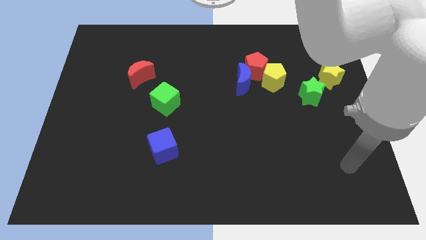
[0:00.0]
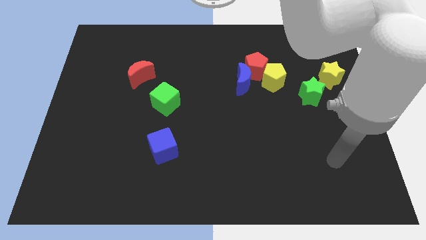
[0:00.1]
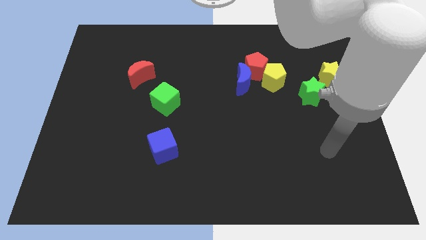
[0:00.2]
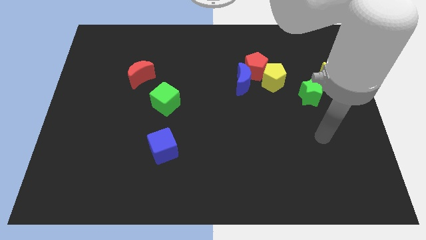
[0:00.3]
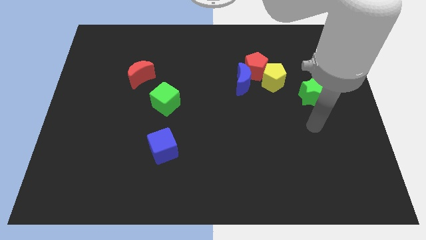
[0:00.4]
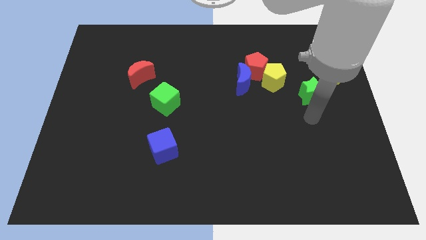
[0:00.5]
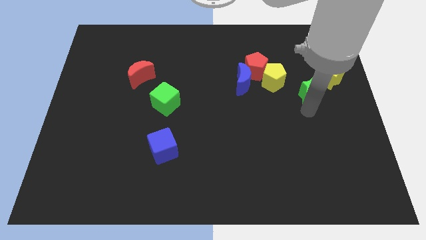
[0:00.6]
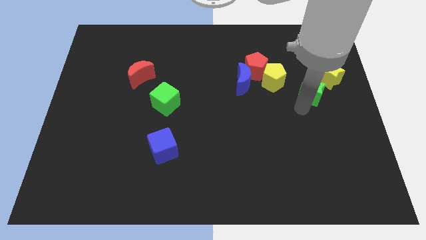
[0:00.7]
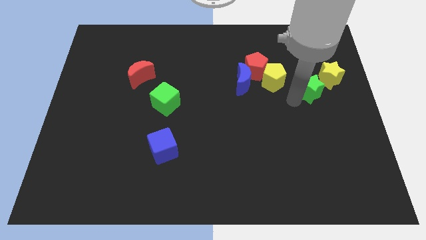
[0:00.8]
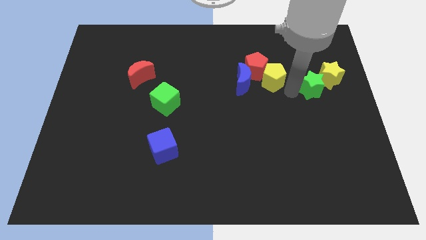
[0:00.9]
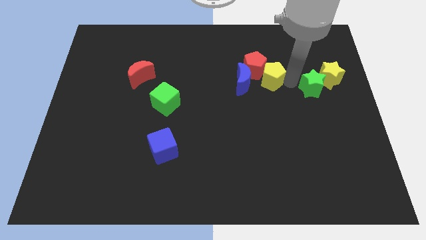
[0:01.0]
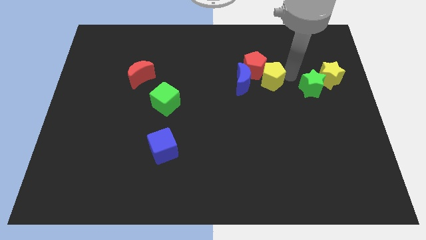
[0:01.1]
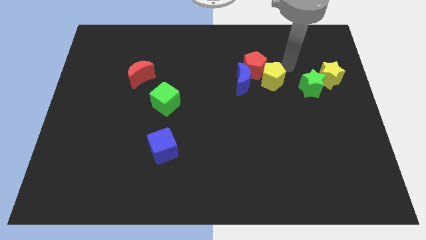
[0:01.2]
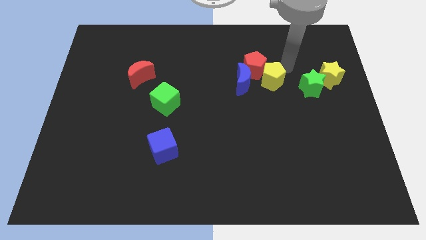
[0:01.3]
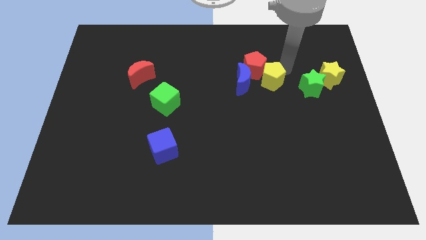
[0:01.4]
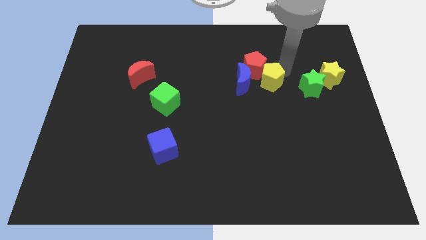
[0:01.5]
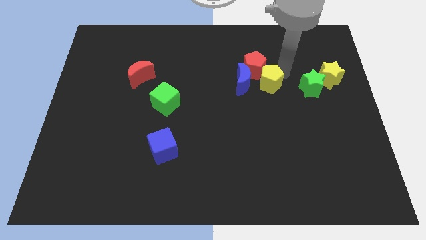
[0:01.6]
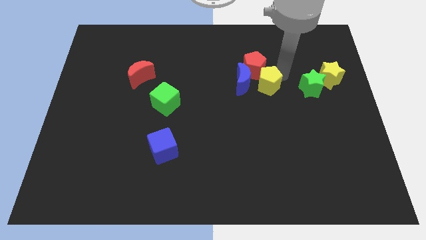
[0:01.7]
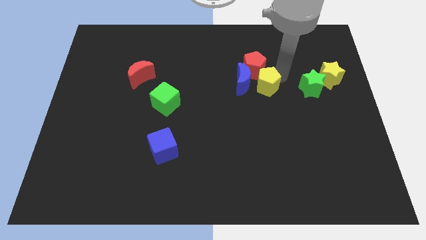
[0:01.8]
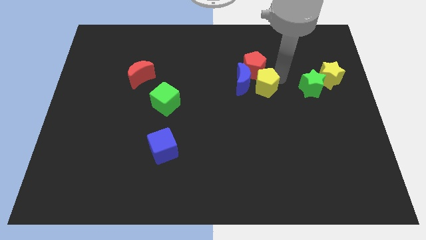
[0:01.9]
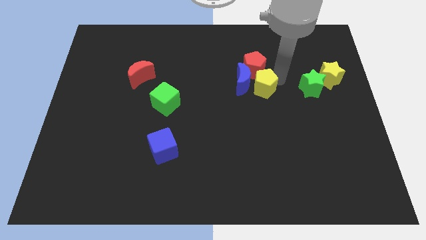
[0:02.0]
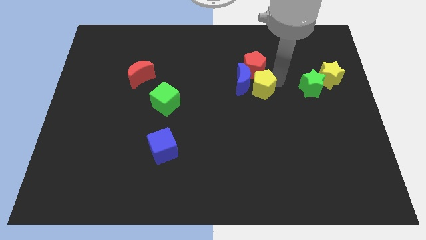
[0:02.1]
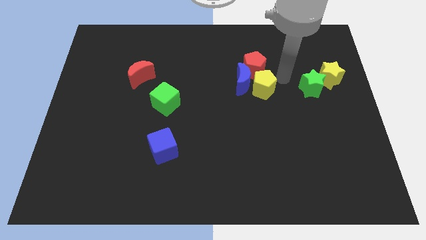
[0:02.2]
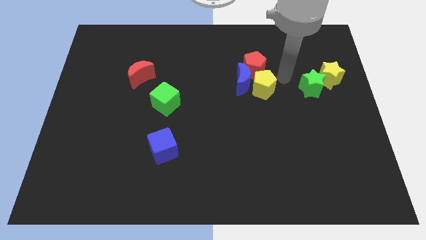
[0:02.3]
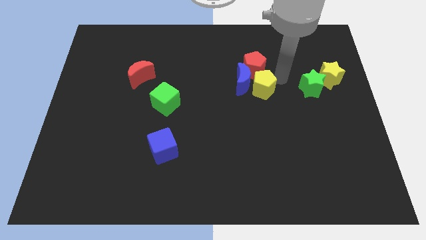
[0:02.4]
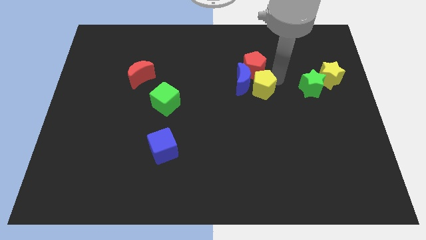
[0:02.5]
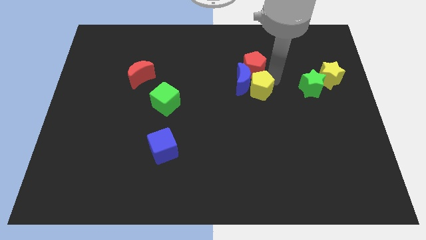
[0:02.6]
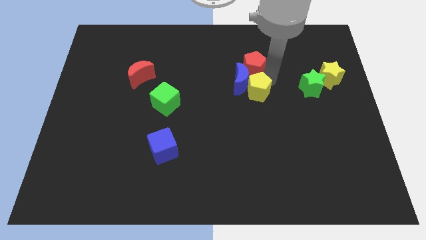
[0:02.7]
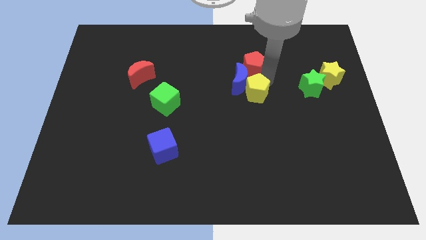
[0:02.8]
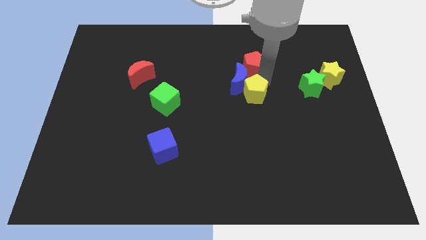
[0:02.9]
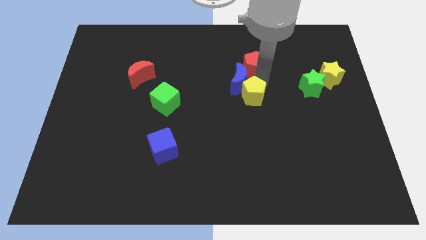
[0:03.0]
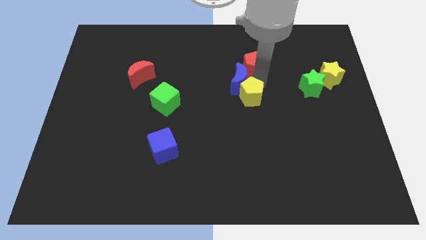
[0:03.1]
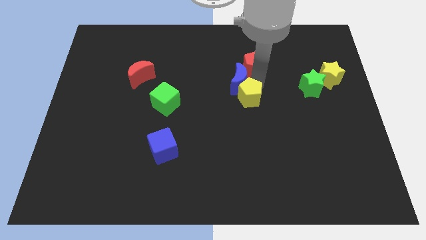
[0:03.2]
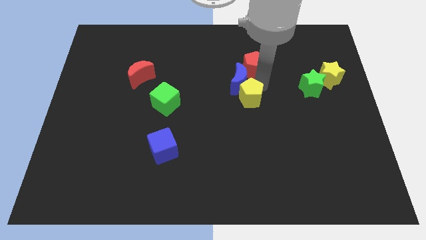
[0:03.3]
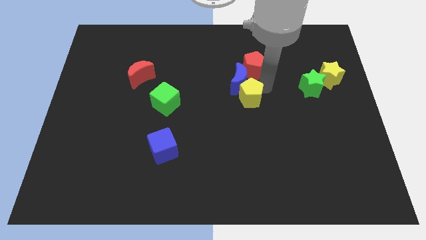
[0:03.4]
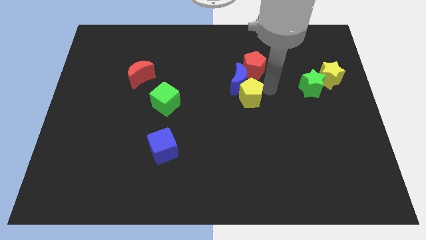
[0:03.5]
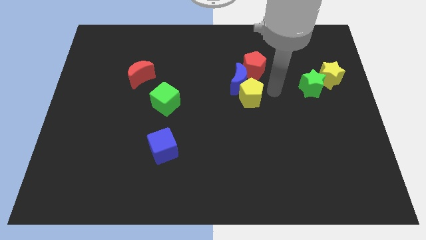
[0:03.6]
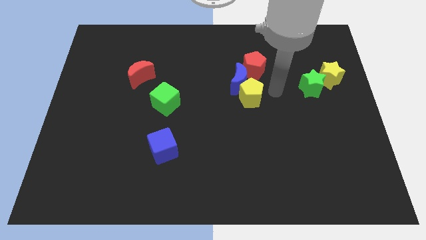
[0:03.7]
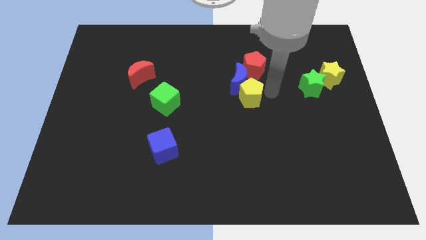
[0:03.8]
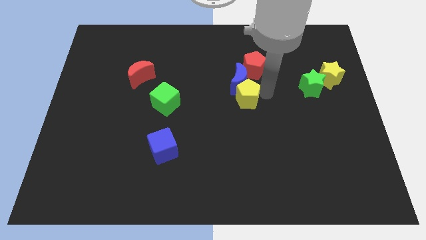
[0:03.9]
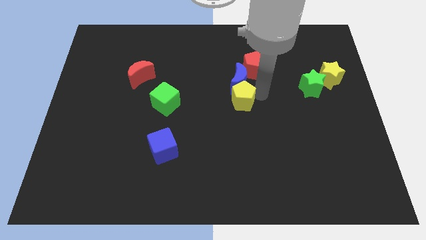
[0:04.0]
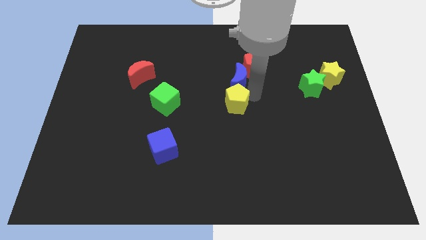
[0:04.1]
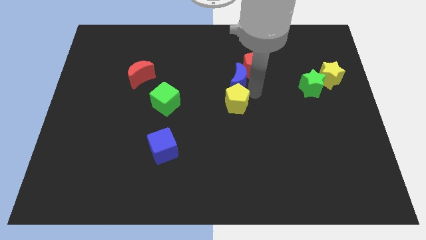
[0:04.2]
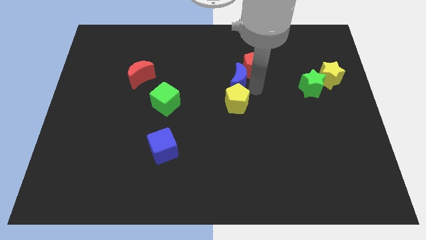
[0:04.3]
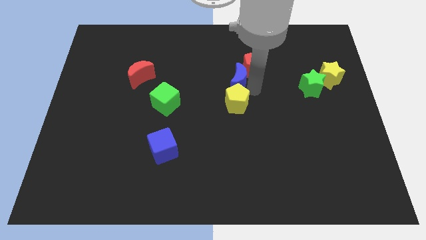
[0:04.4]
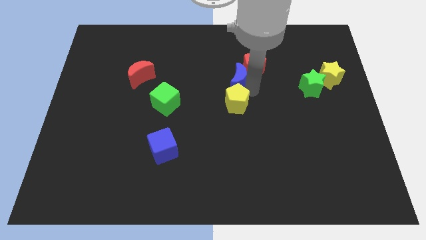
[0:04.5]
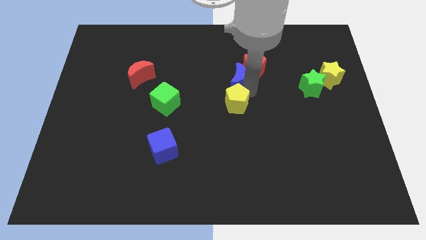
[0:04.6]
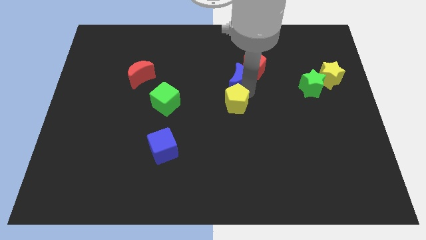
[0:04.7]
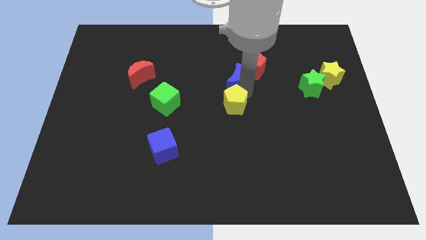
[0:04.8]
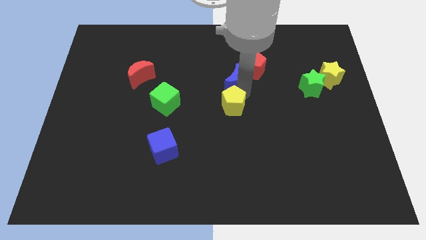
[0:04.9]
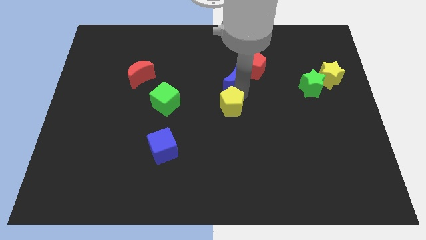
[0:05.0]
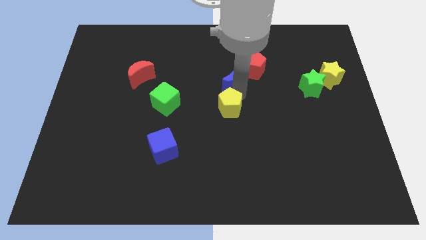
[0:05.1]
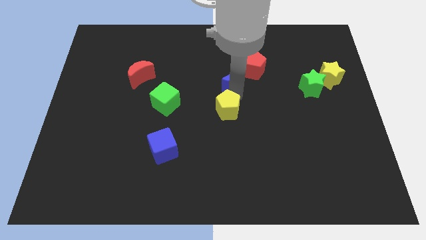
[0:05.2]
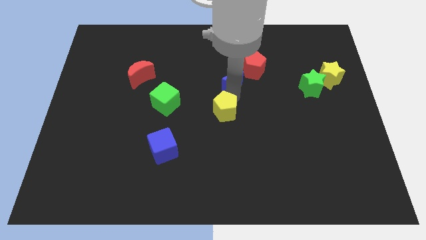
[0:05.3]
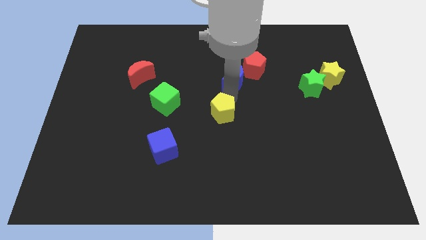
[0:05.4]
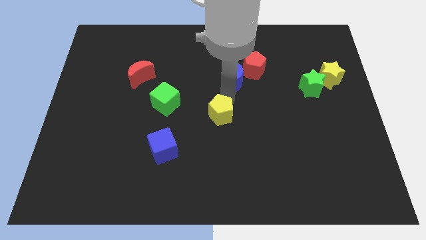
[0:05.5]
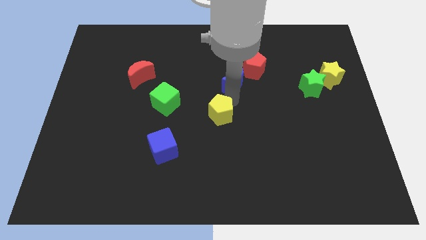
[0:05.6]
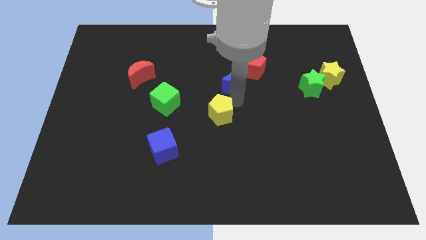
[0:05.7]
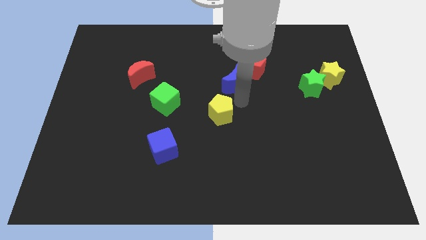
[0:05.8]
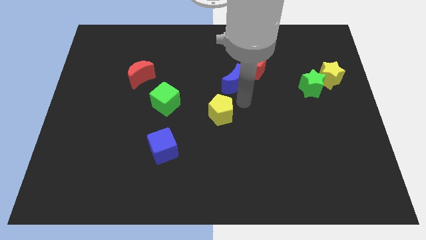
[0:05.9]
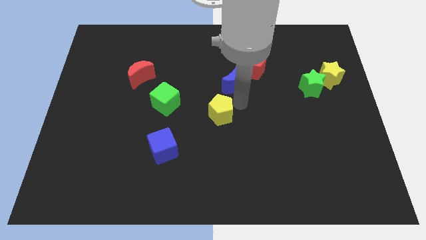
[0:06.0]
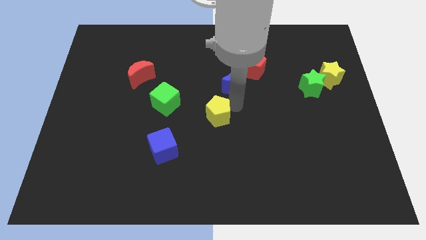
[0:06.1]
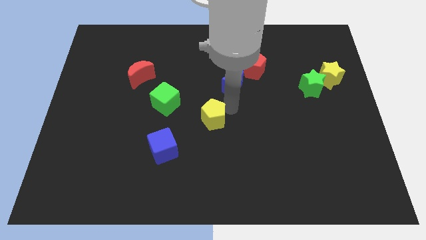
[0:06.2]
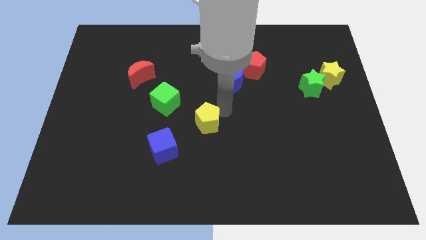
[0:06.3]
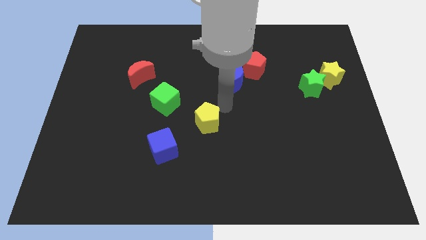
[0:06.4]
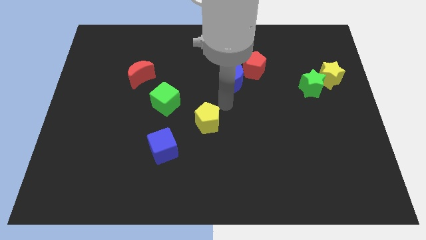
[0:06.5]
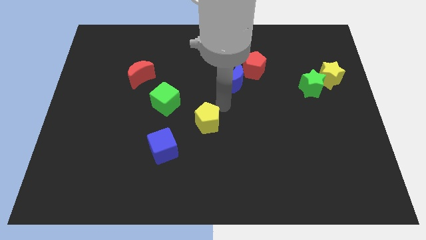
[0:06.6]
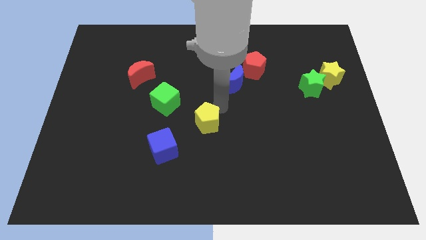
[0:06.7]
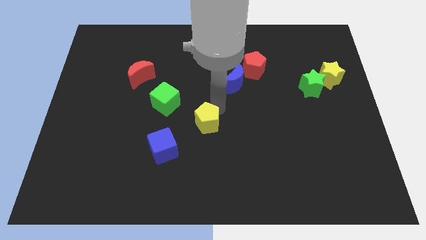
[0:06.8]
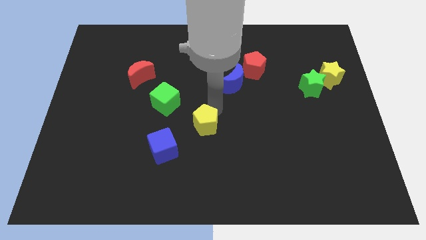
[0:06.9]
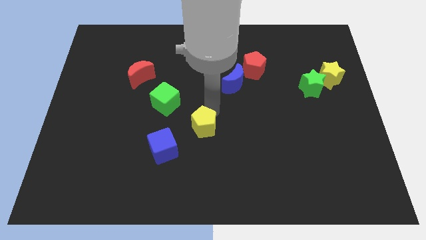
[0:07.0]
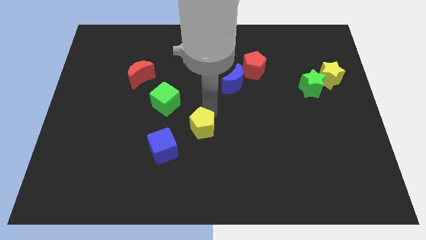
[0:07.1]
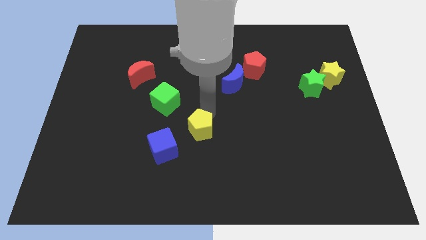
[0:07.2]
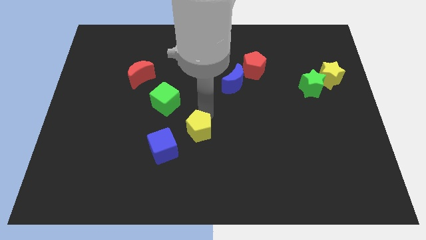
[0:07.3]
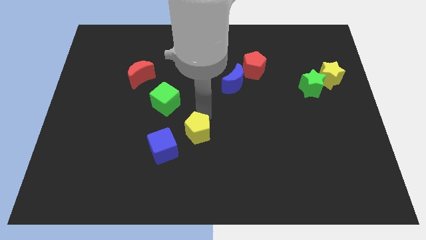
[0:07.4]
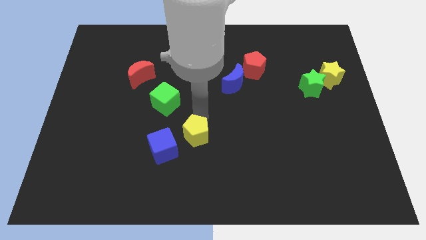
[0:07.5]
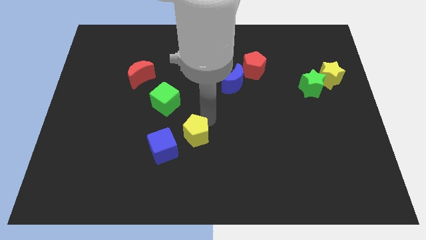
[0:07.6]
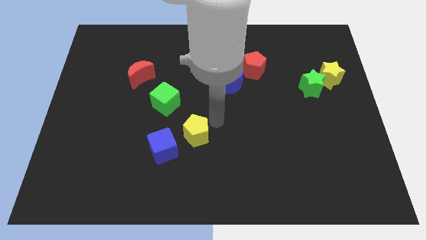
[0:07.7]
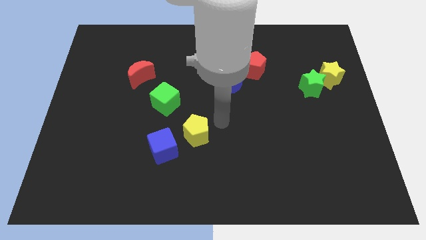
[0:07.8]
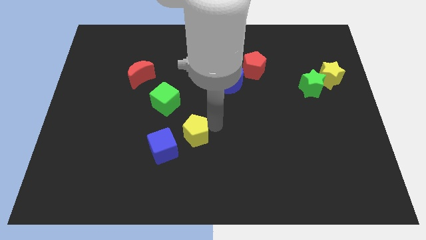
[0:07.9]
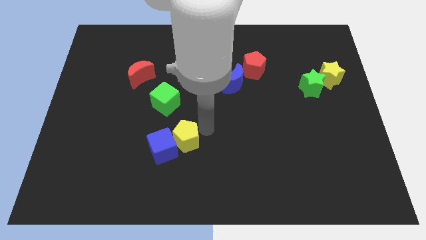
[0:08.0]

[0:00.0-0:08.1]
push the yellow pentagon next to the blue cube

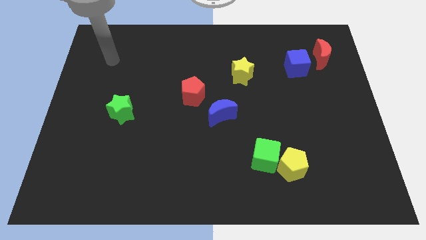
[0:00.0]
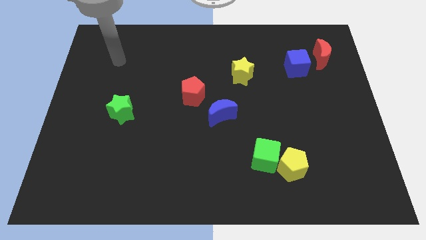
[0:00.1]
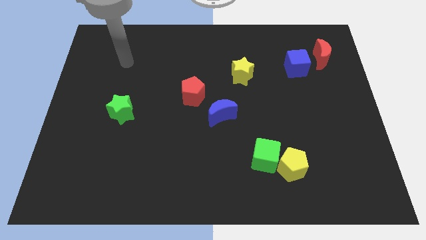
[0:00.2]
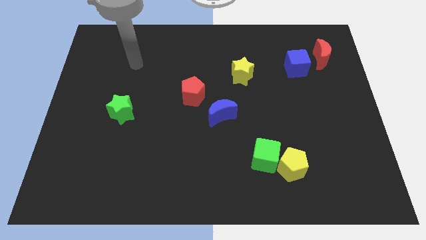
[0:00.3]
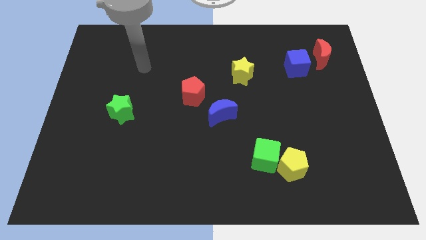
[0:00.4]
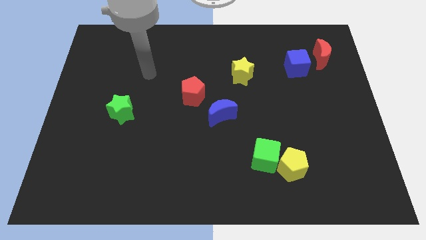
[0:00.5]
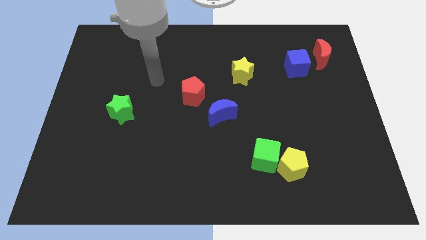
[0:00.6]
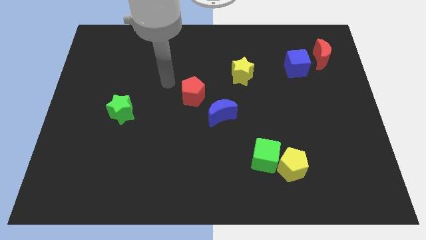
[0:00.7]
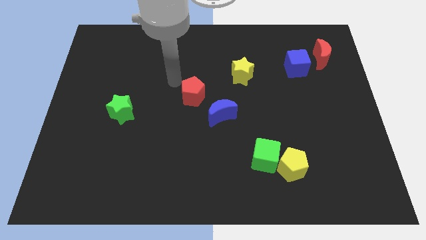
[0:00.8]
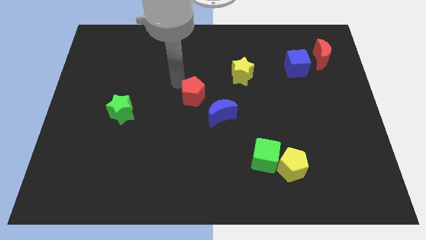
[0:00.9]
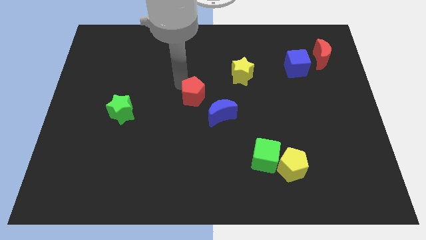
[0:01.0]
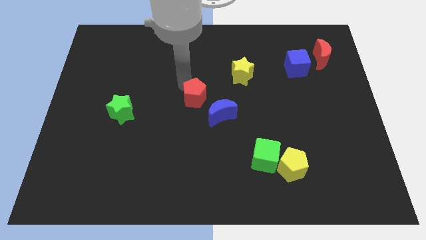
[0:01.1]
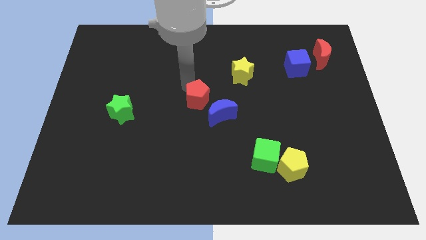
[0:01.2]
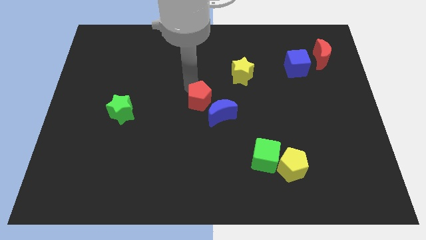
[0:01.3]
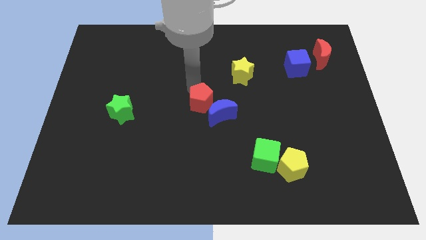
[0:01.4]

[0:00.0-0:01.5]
slide the red pentagon to the blue moon
